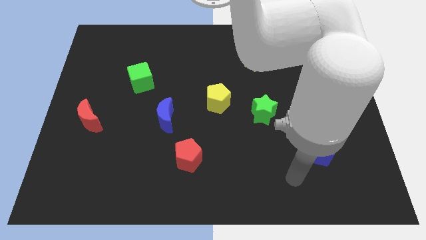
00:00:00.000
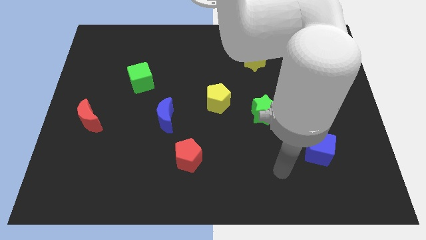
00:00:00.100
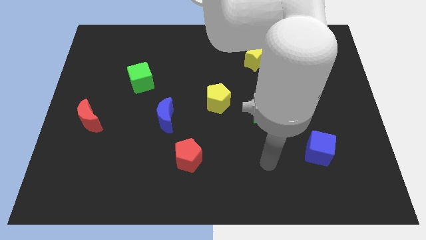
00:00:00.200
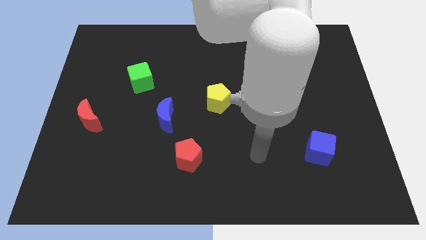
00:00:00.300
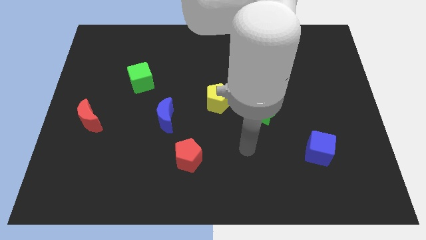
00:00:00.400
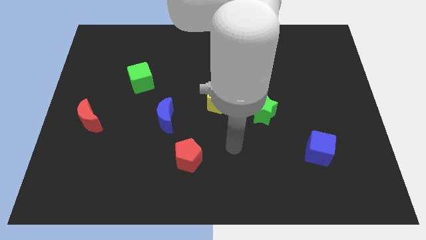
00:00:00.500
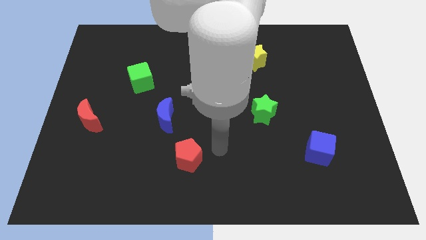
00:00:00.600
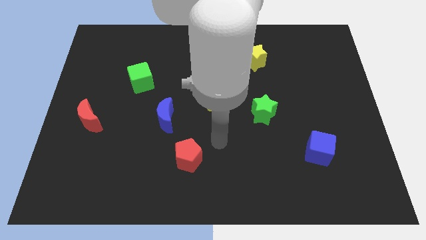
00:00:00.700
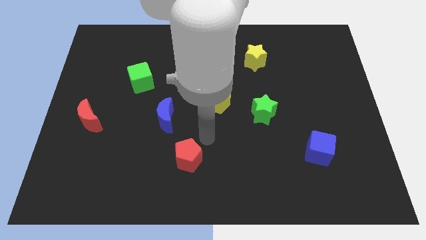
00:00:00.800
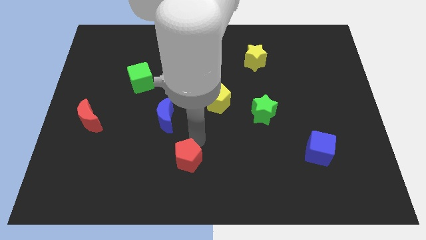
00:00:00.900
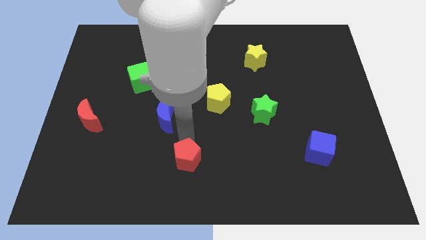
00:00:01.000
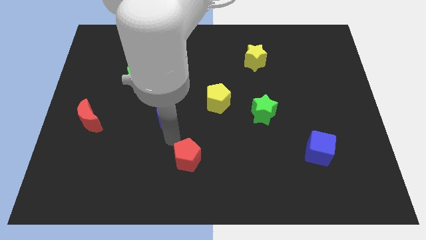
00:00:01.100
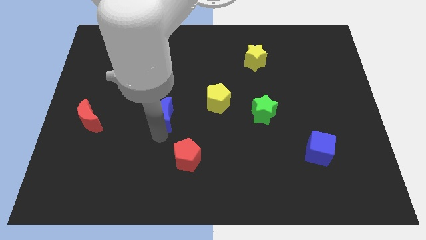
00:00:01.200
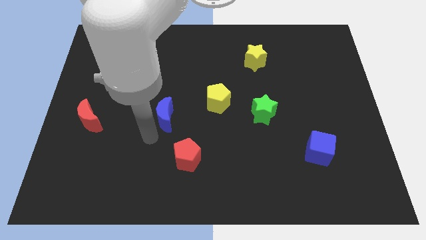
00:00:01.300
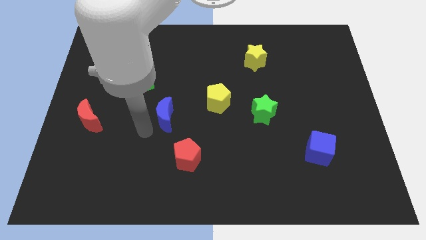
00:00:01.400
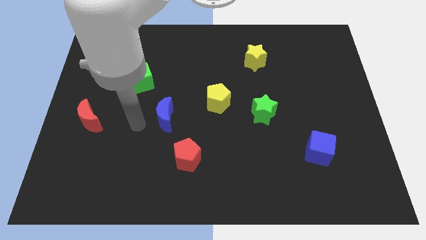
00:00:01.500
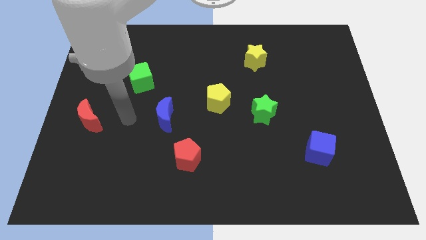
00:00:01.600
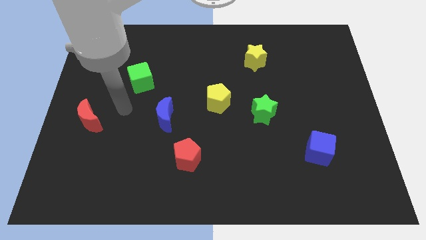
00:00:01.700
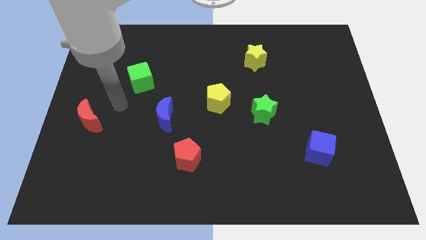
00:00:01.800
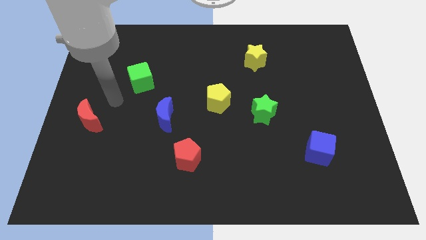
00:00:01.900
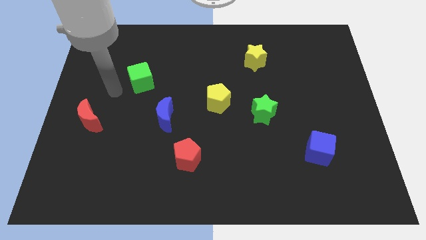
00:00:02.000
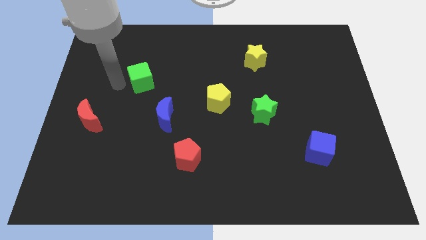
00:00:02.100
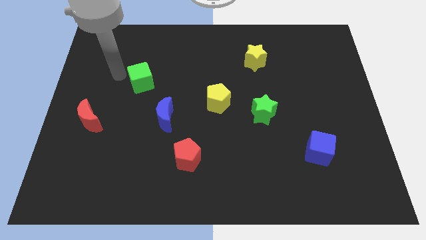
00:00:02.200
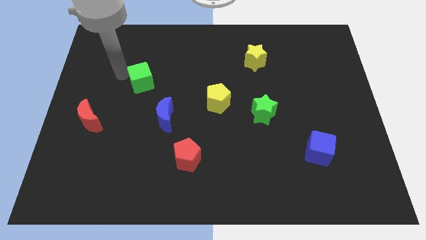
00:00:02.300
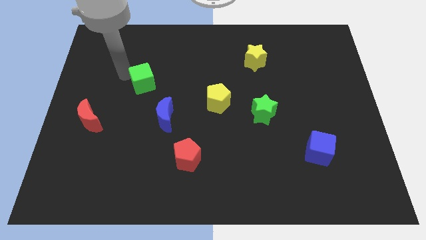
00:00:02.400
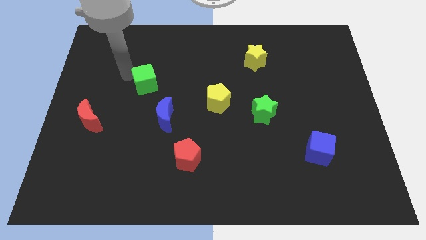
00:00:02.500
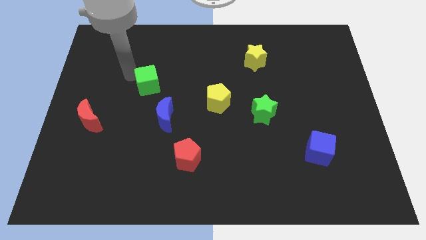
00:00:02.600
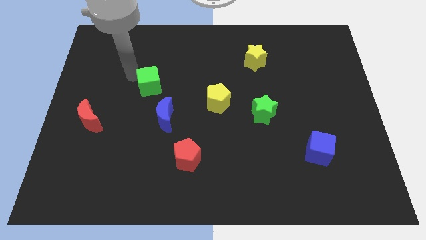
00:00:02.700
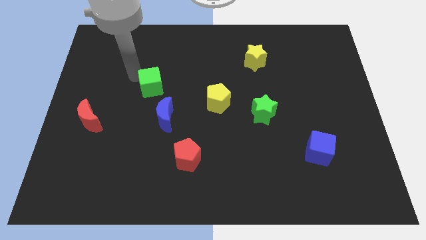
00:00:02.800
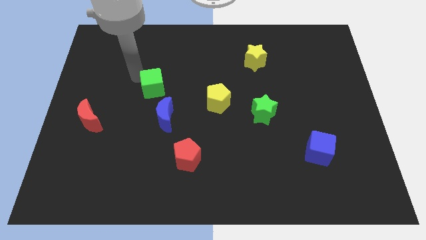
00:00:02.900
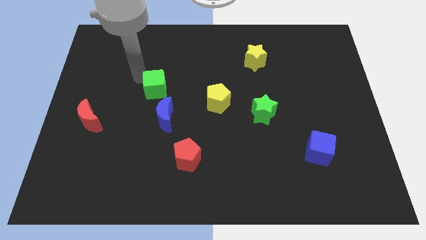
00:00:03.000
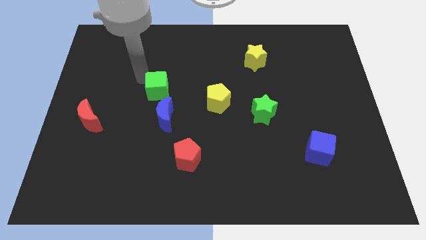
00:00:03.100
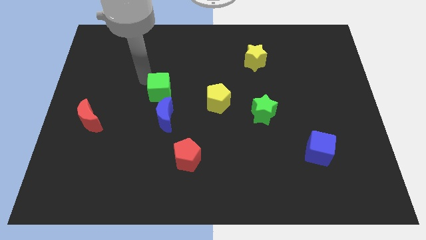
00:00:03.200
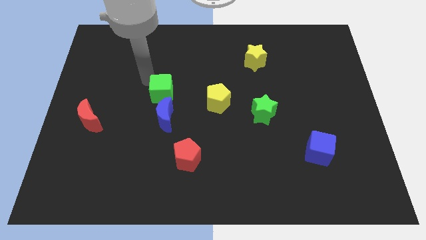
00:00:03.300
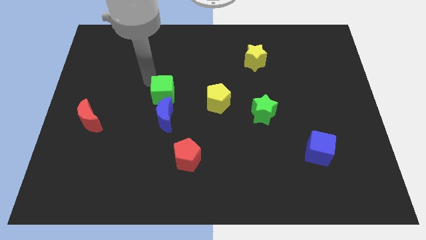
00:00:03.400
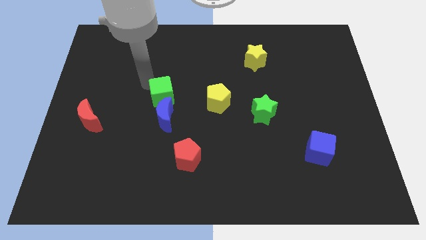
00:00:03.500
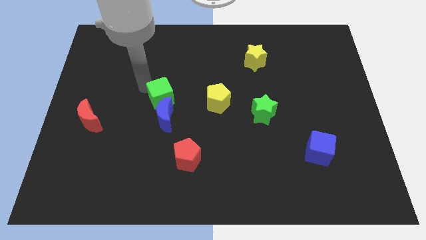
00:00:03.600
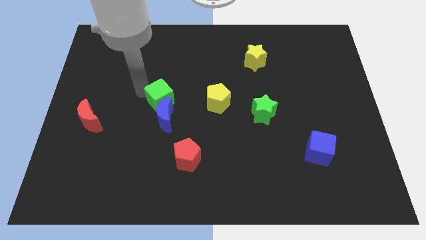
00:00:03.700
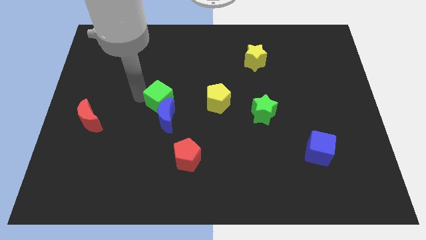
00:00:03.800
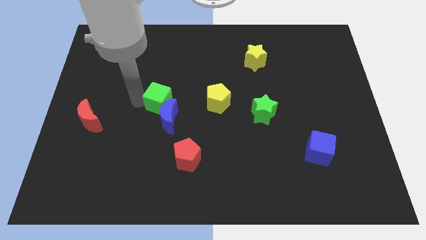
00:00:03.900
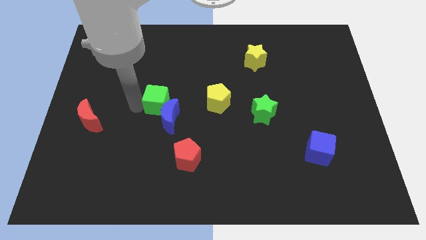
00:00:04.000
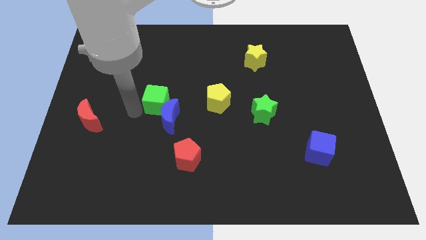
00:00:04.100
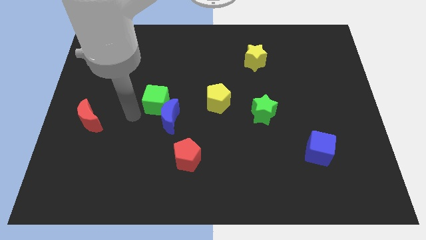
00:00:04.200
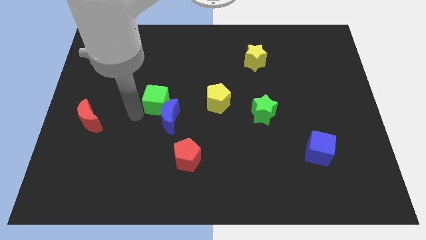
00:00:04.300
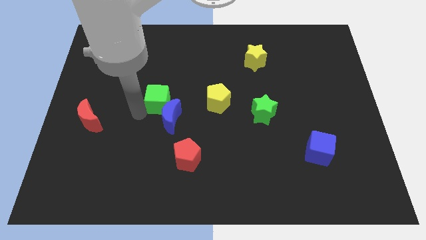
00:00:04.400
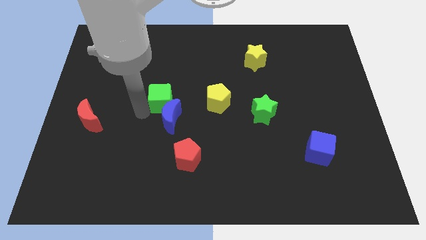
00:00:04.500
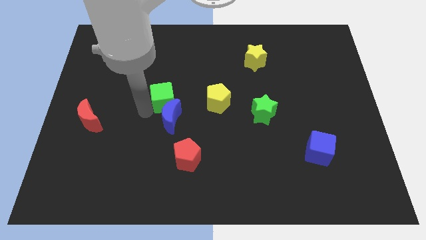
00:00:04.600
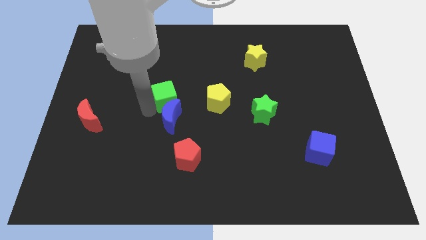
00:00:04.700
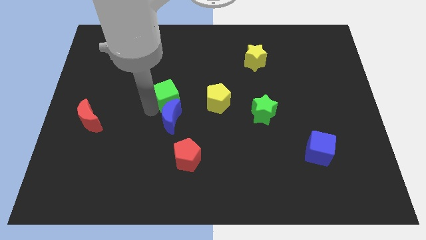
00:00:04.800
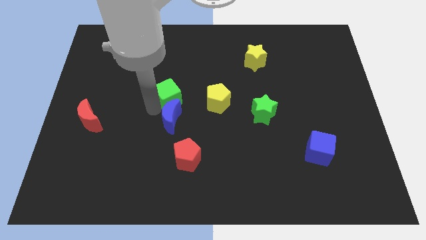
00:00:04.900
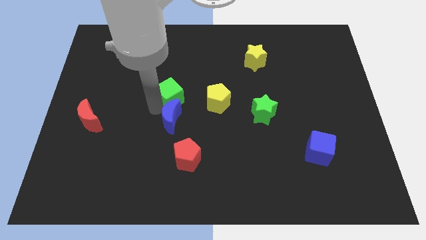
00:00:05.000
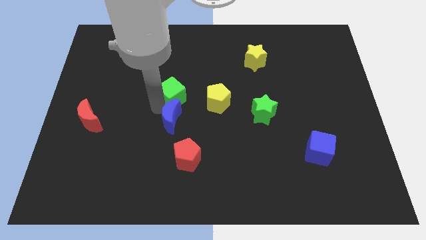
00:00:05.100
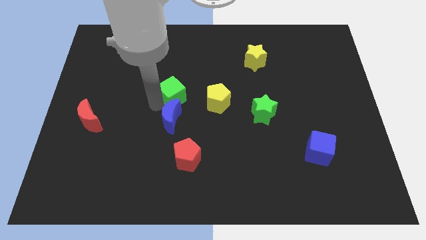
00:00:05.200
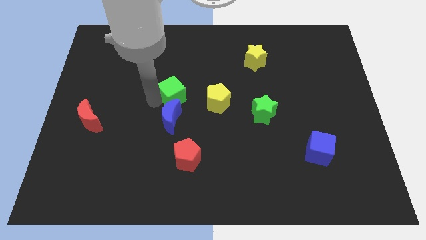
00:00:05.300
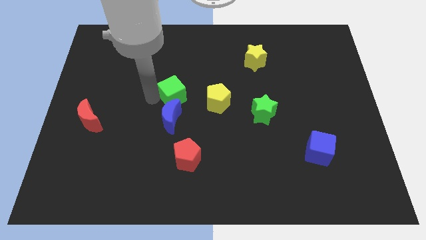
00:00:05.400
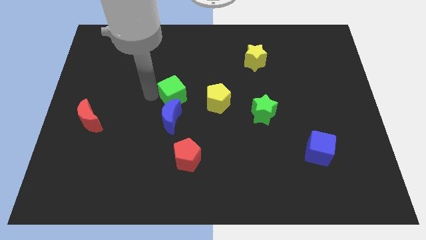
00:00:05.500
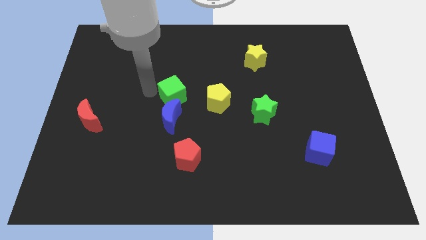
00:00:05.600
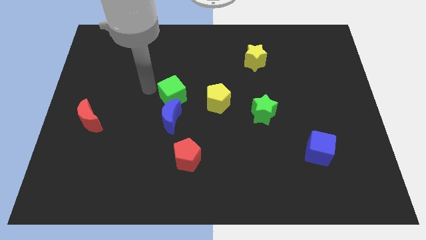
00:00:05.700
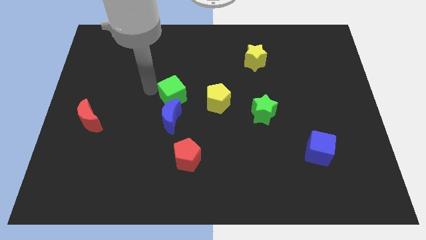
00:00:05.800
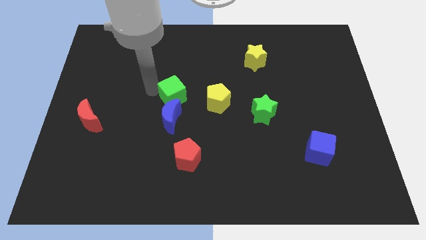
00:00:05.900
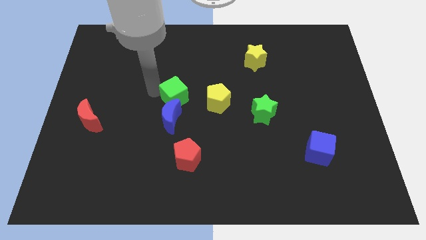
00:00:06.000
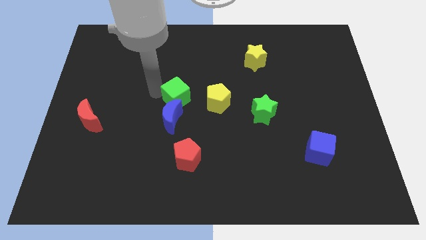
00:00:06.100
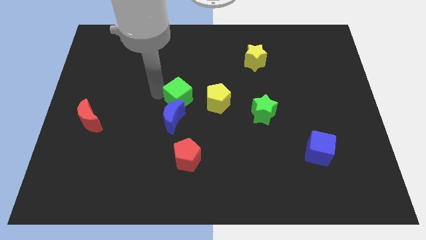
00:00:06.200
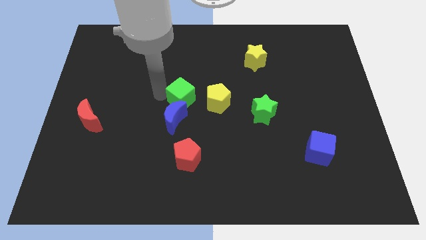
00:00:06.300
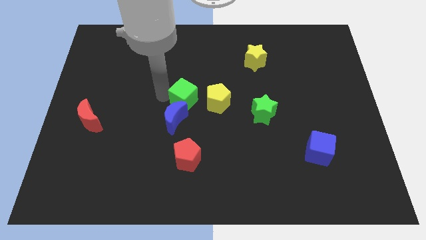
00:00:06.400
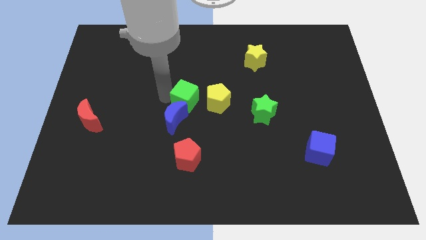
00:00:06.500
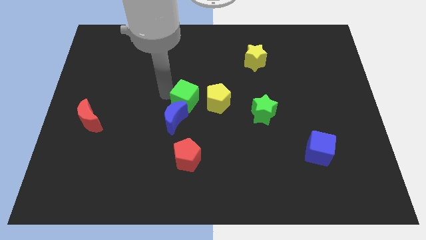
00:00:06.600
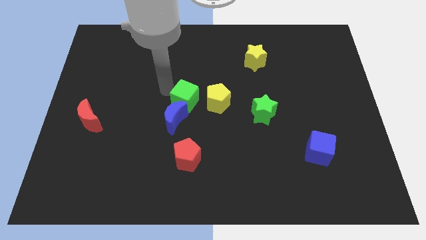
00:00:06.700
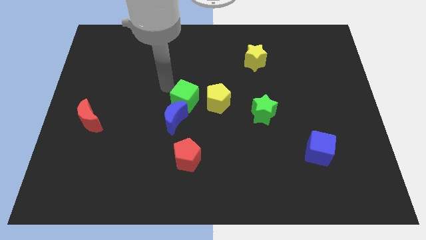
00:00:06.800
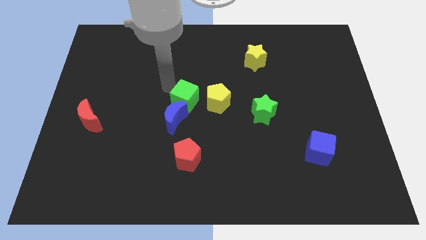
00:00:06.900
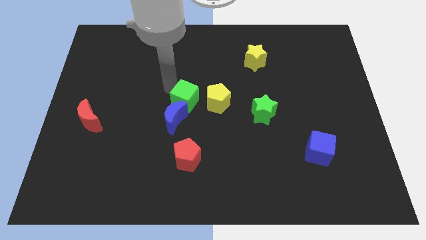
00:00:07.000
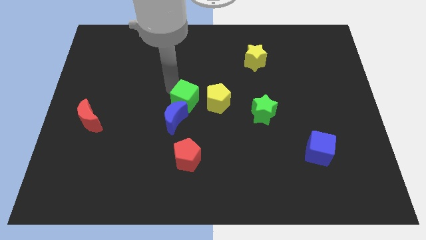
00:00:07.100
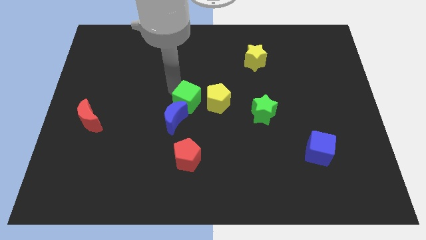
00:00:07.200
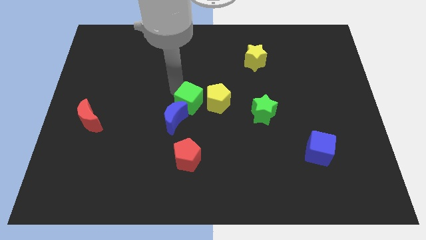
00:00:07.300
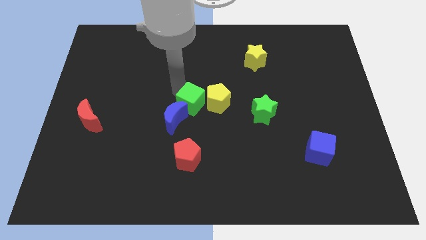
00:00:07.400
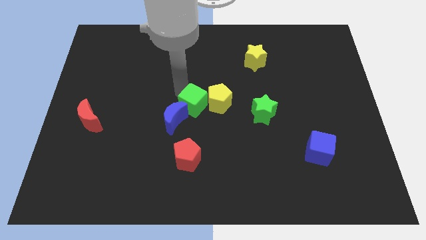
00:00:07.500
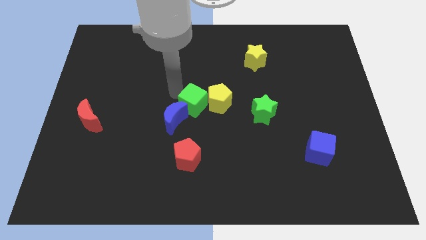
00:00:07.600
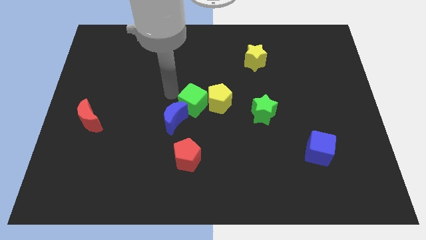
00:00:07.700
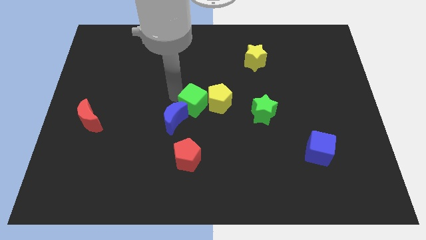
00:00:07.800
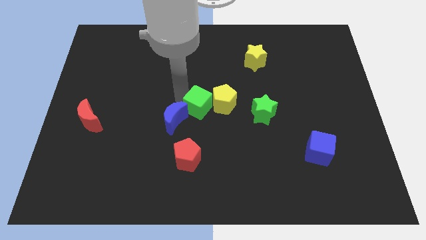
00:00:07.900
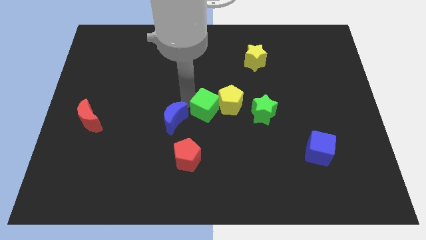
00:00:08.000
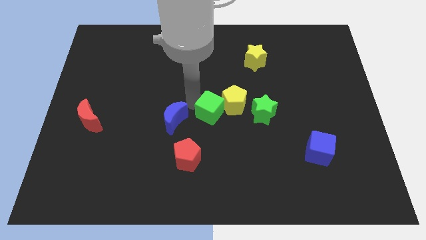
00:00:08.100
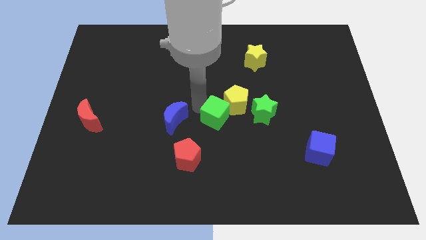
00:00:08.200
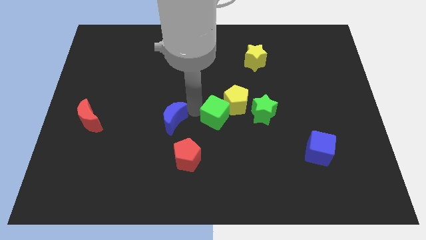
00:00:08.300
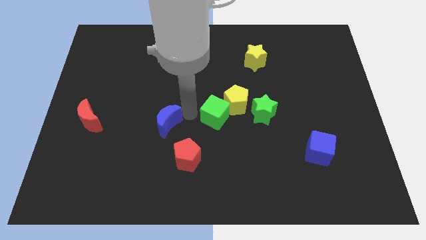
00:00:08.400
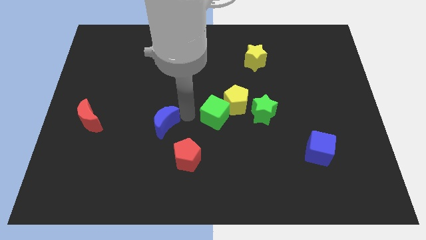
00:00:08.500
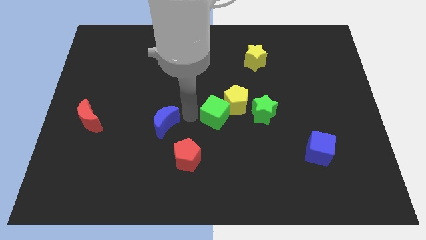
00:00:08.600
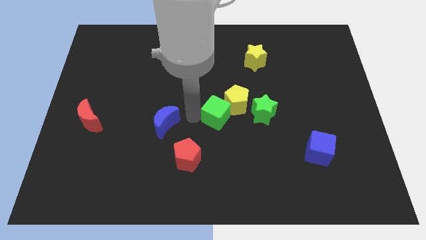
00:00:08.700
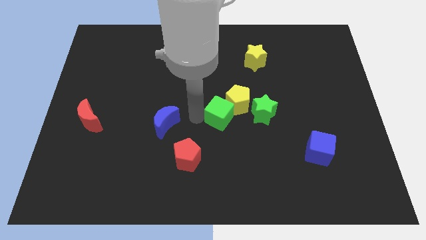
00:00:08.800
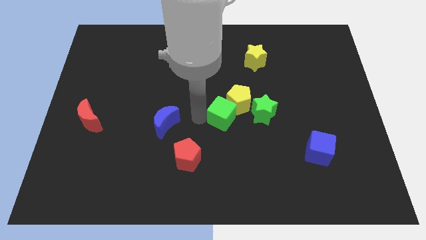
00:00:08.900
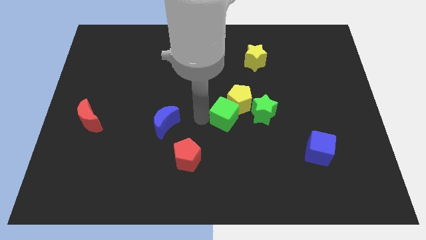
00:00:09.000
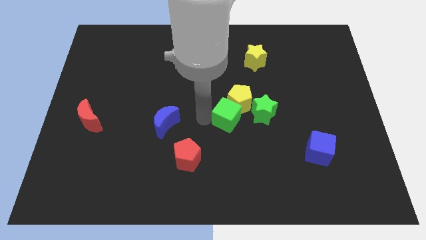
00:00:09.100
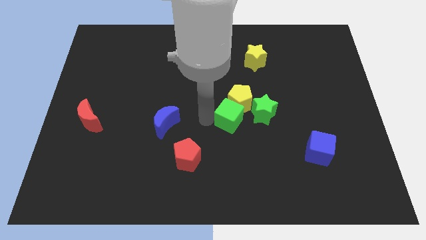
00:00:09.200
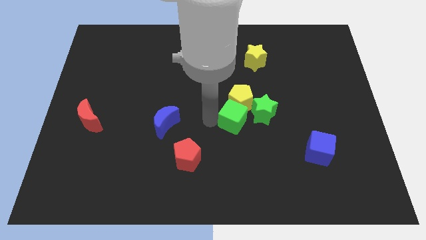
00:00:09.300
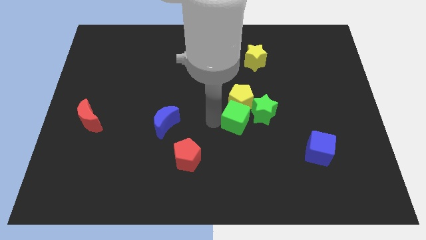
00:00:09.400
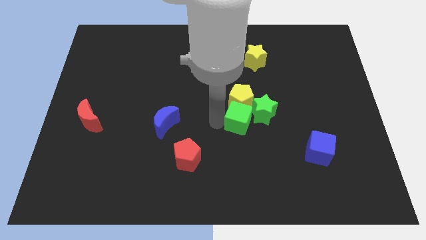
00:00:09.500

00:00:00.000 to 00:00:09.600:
push the green cube close to the green star
